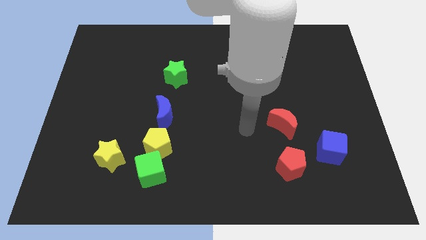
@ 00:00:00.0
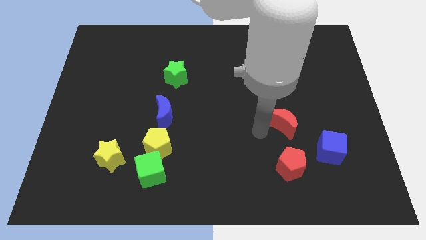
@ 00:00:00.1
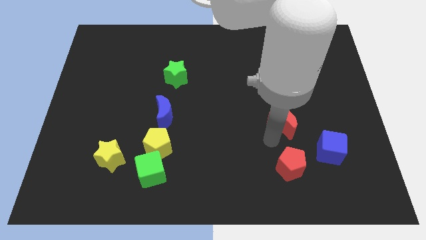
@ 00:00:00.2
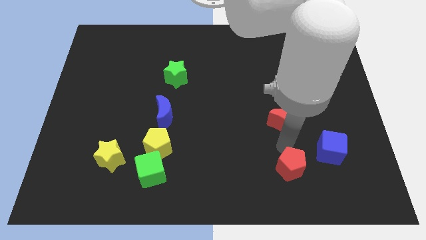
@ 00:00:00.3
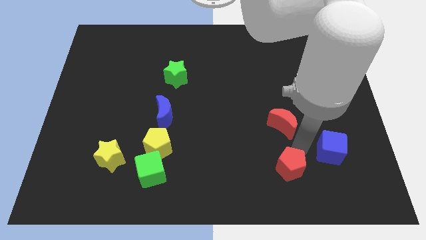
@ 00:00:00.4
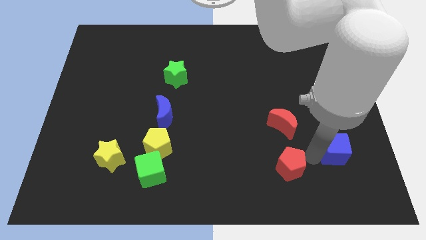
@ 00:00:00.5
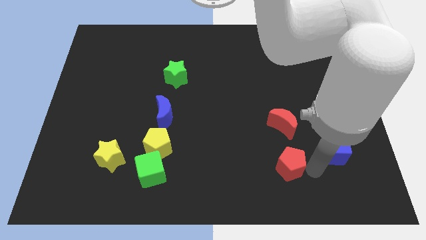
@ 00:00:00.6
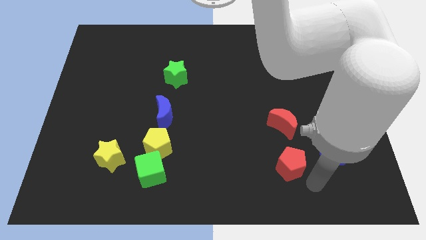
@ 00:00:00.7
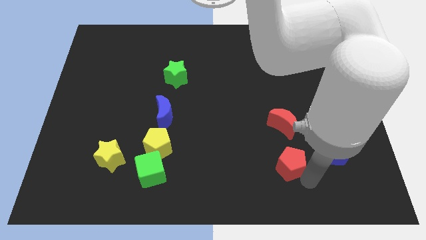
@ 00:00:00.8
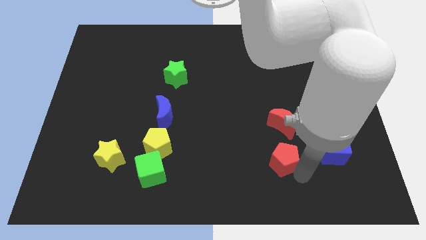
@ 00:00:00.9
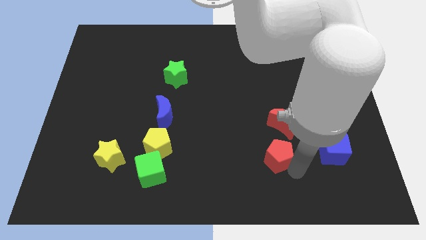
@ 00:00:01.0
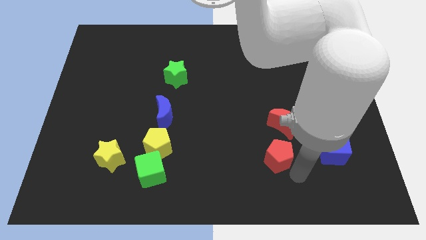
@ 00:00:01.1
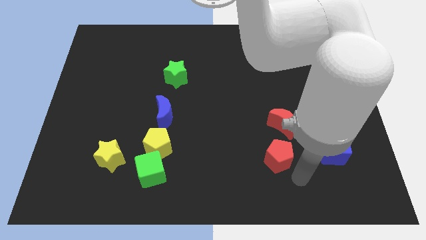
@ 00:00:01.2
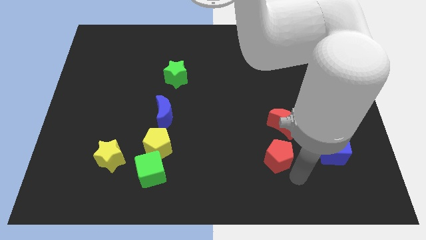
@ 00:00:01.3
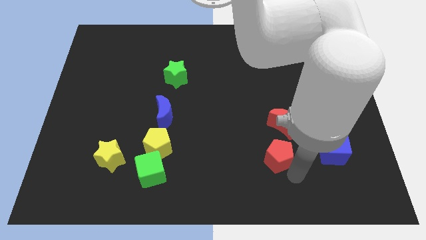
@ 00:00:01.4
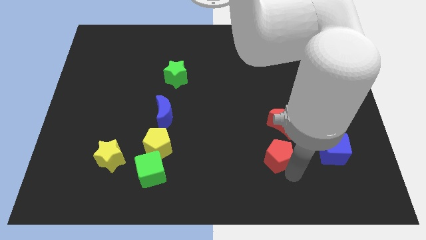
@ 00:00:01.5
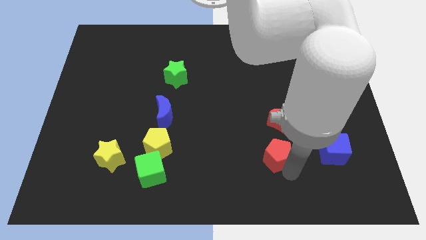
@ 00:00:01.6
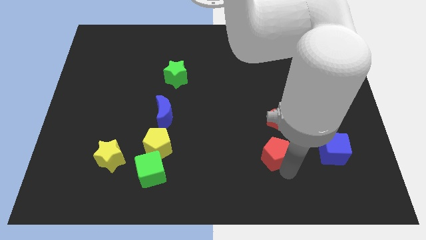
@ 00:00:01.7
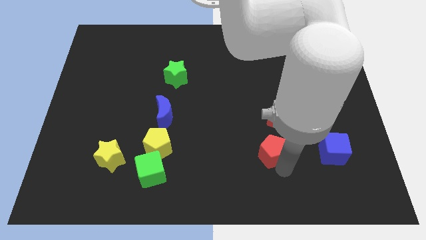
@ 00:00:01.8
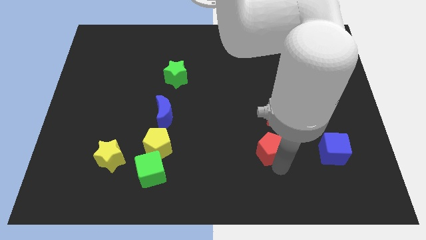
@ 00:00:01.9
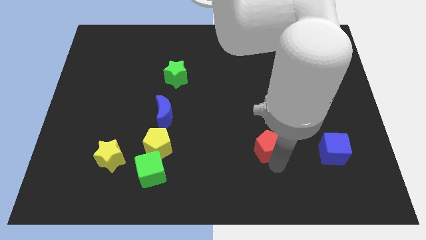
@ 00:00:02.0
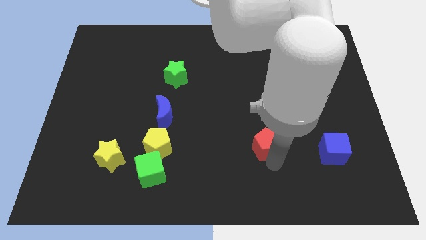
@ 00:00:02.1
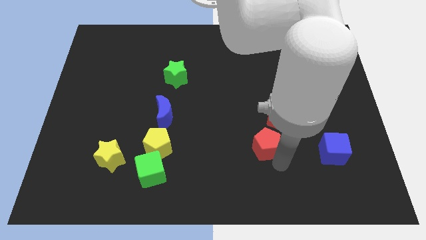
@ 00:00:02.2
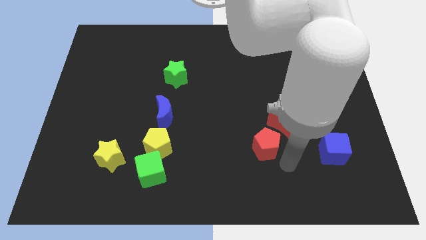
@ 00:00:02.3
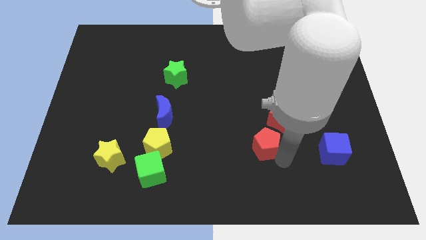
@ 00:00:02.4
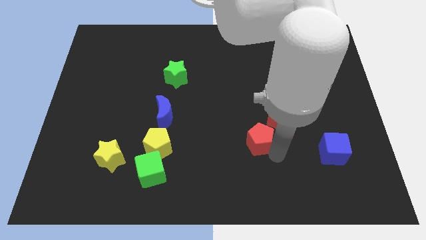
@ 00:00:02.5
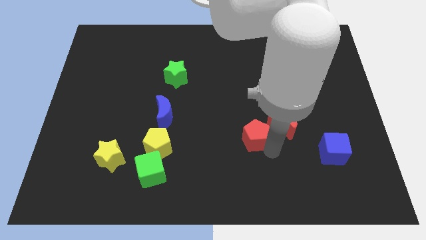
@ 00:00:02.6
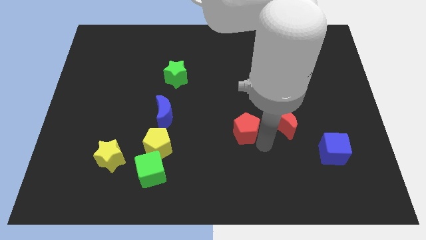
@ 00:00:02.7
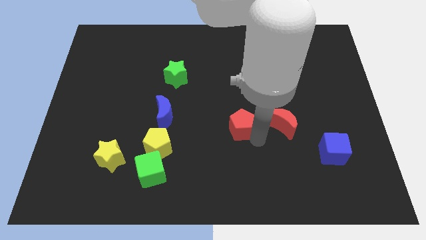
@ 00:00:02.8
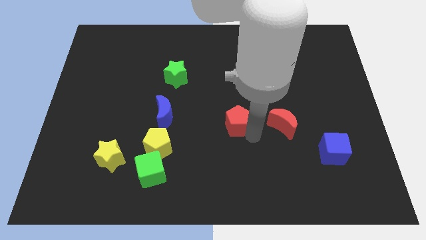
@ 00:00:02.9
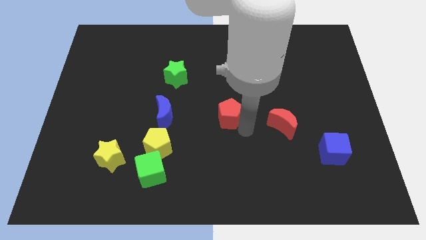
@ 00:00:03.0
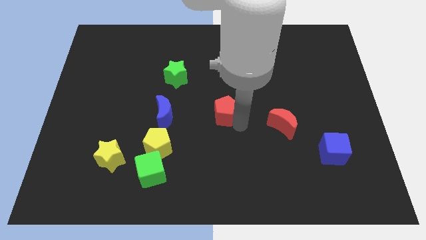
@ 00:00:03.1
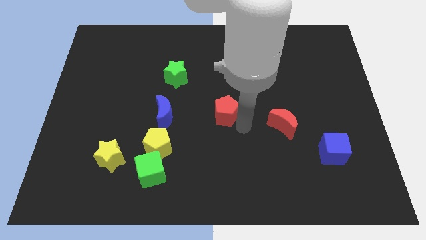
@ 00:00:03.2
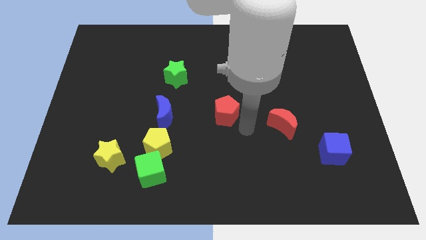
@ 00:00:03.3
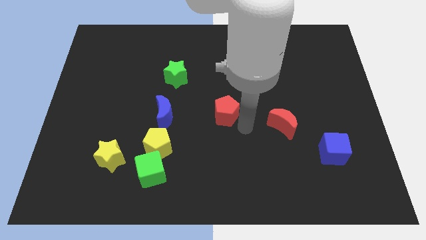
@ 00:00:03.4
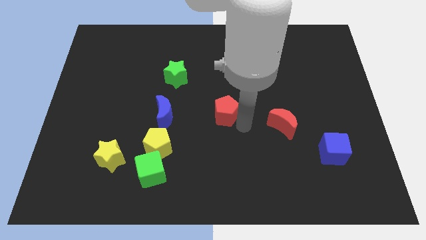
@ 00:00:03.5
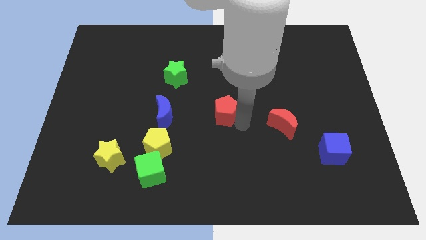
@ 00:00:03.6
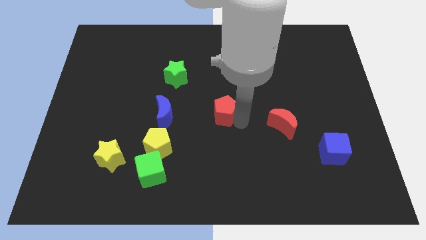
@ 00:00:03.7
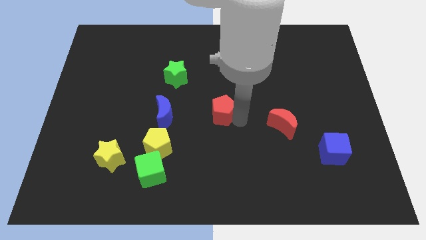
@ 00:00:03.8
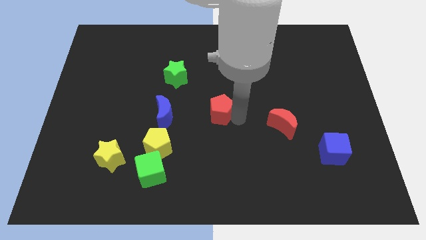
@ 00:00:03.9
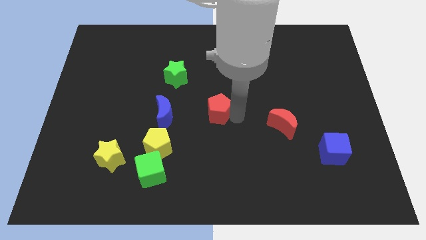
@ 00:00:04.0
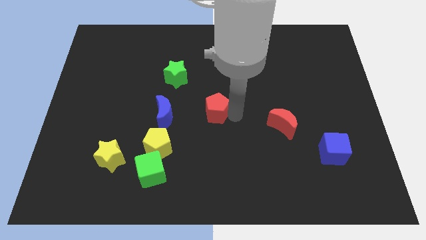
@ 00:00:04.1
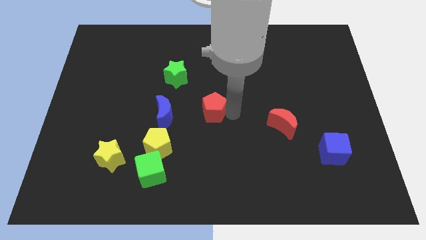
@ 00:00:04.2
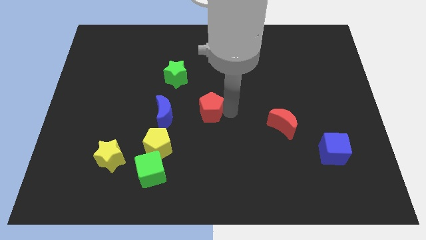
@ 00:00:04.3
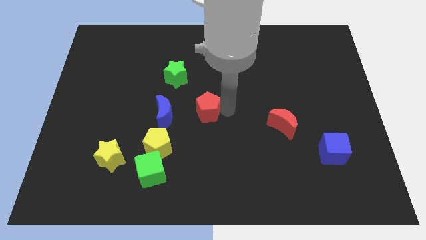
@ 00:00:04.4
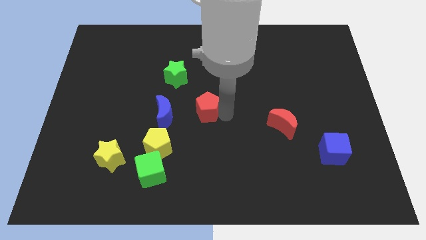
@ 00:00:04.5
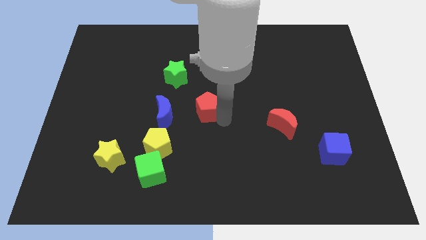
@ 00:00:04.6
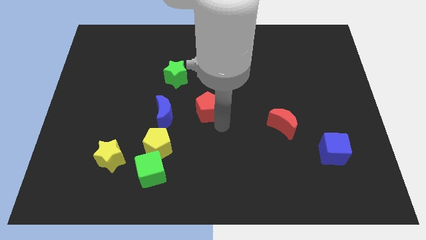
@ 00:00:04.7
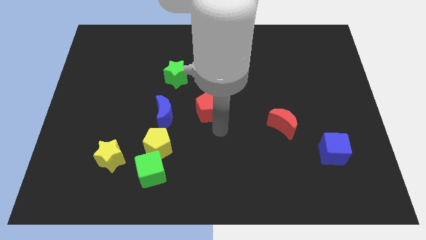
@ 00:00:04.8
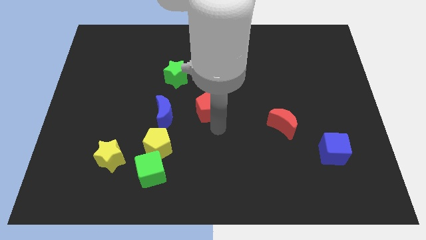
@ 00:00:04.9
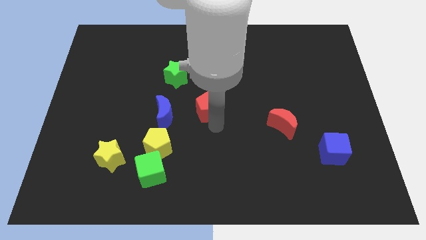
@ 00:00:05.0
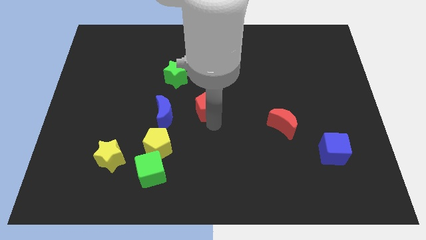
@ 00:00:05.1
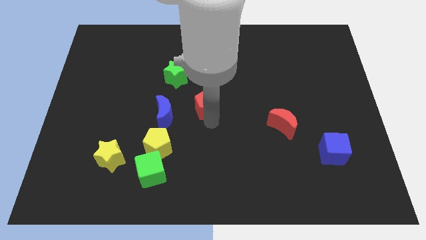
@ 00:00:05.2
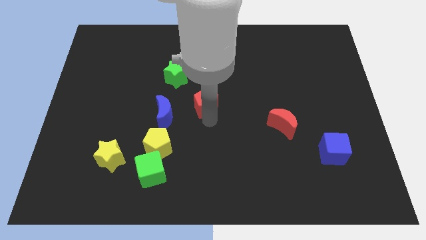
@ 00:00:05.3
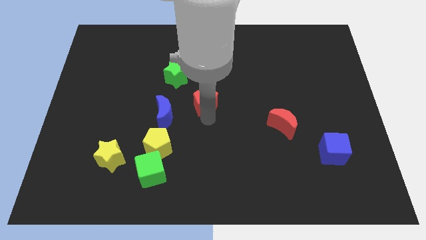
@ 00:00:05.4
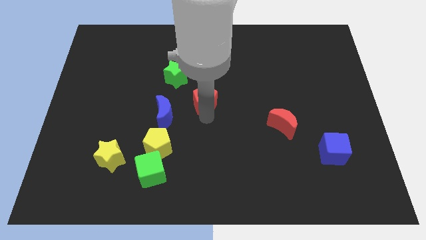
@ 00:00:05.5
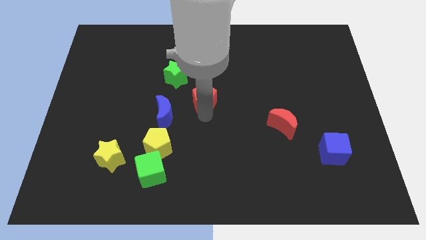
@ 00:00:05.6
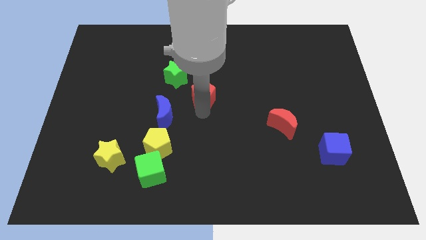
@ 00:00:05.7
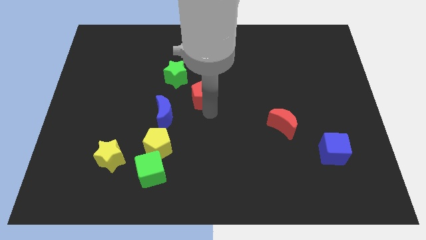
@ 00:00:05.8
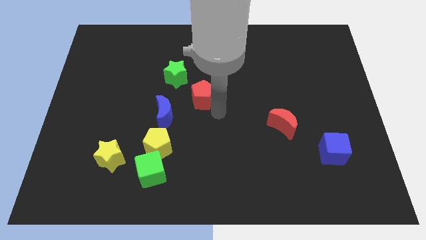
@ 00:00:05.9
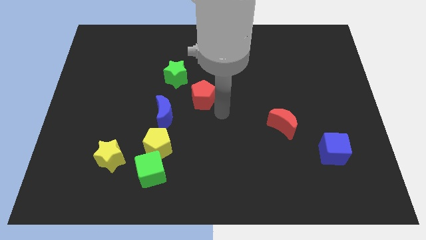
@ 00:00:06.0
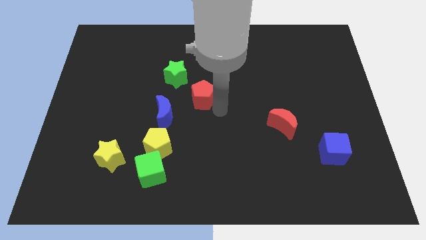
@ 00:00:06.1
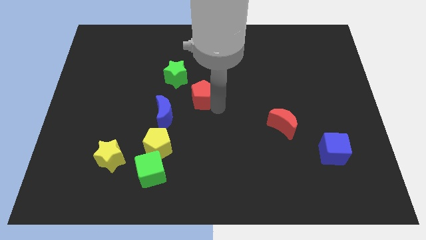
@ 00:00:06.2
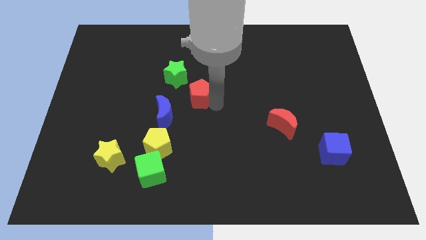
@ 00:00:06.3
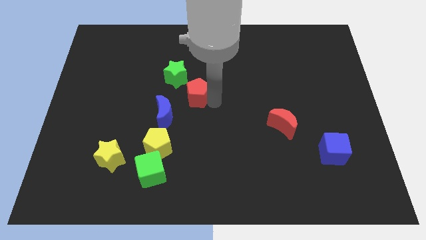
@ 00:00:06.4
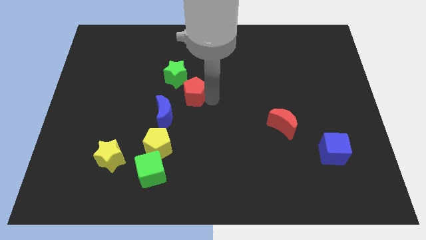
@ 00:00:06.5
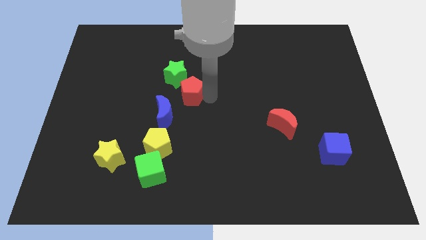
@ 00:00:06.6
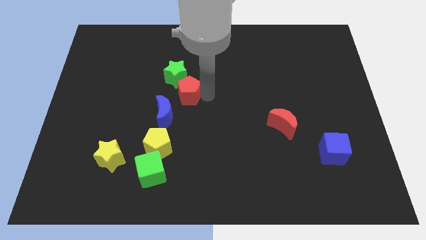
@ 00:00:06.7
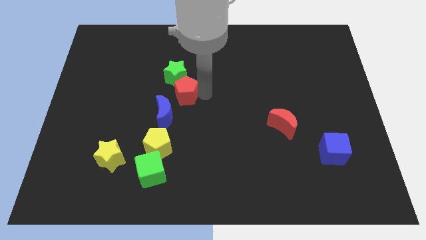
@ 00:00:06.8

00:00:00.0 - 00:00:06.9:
slide the red pentagon close to the green star
